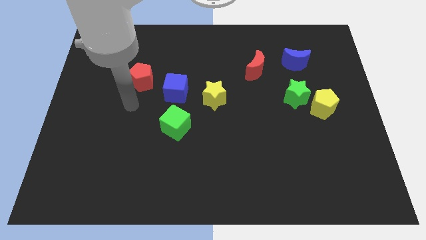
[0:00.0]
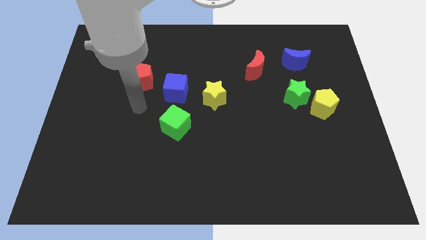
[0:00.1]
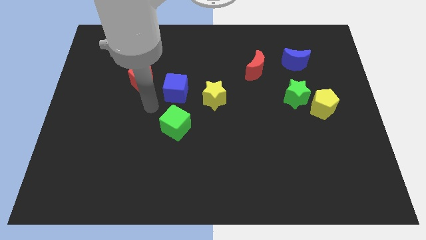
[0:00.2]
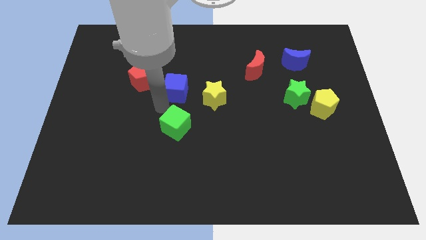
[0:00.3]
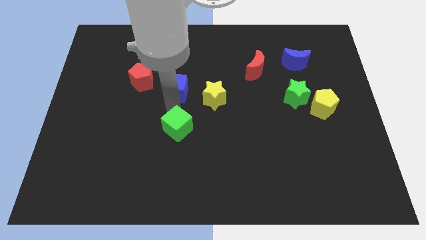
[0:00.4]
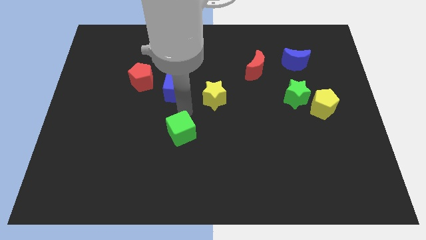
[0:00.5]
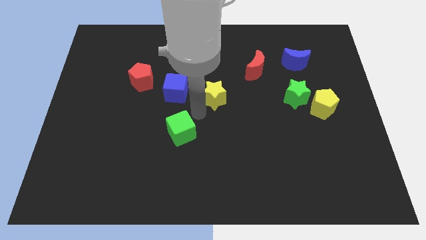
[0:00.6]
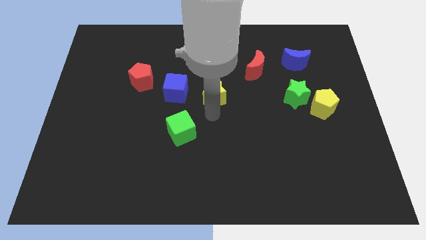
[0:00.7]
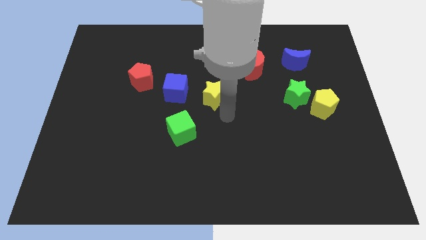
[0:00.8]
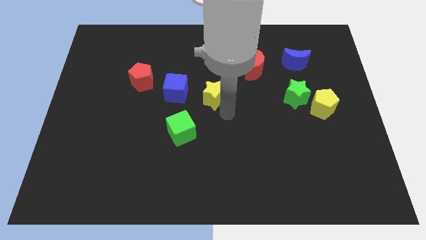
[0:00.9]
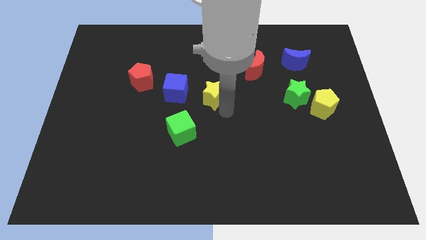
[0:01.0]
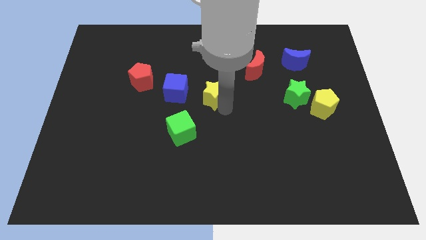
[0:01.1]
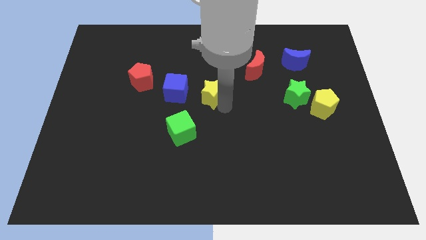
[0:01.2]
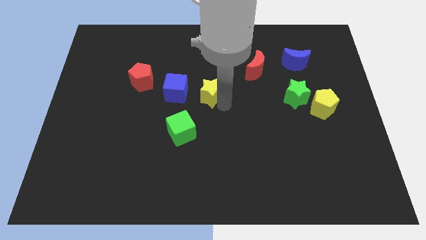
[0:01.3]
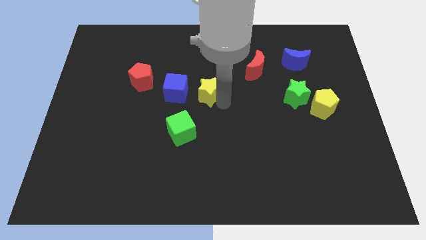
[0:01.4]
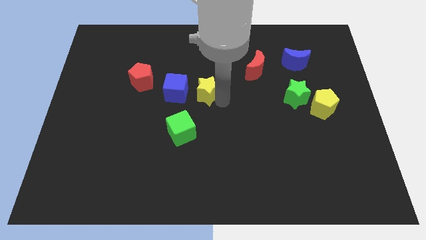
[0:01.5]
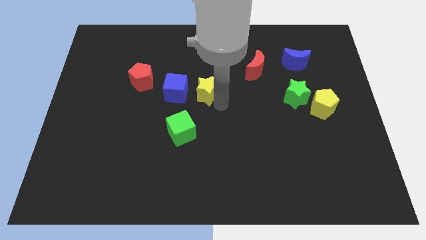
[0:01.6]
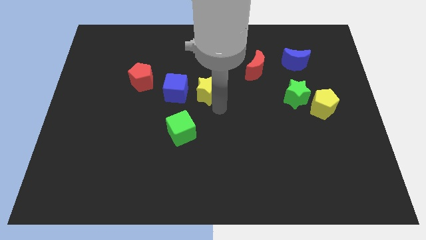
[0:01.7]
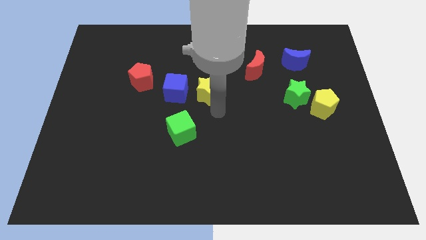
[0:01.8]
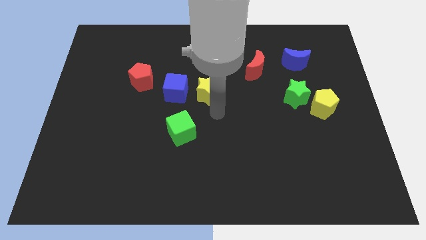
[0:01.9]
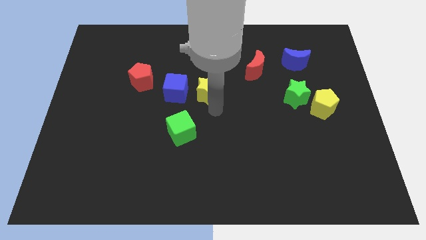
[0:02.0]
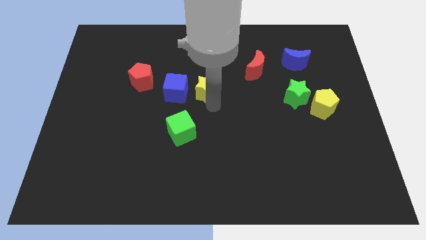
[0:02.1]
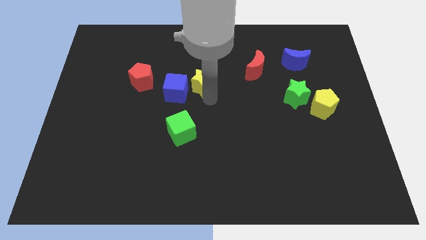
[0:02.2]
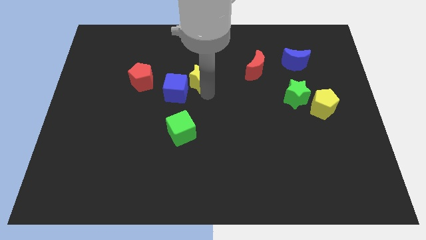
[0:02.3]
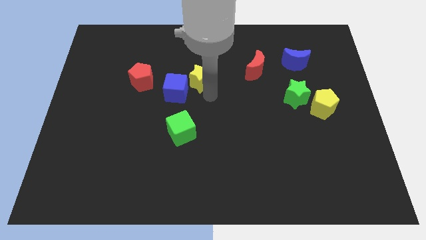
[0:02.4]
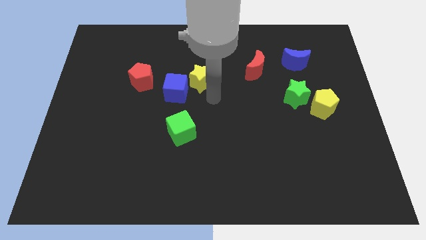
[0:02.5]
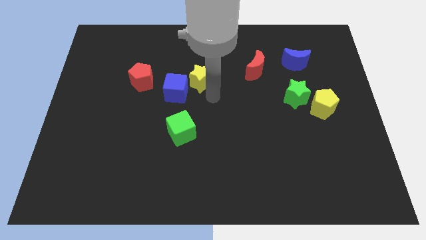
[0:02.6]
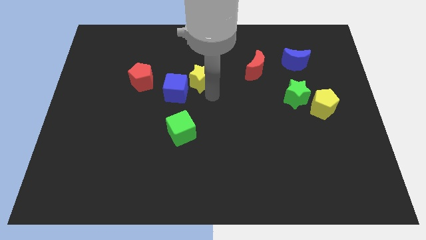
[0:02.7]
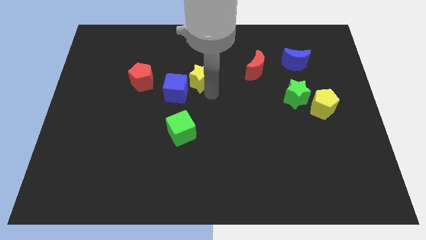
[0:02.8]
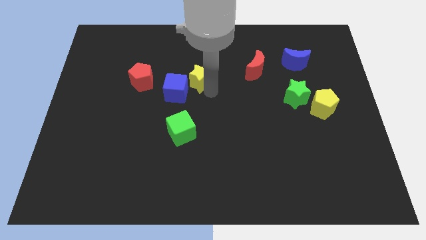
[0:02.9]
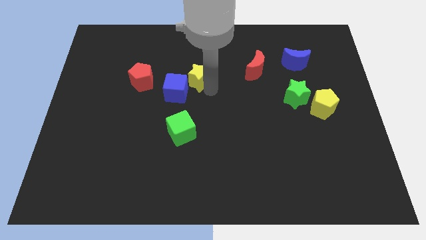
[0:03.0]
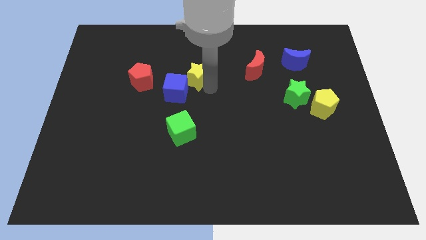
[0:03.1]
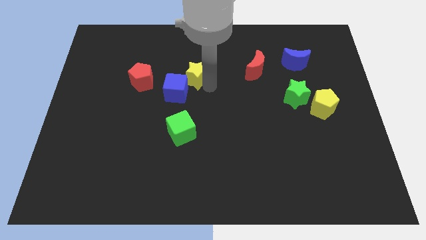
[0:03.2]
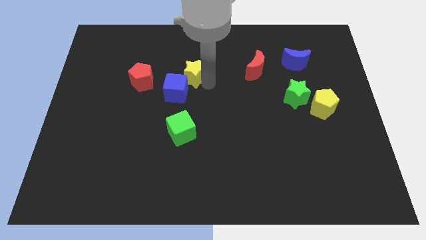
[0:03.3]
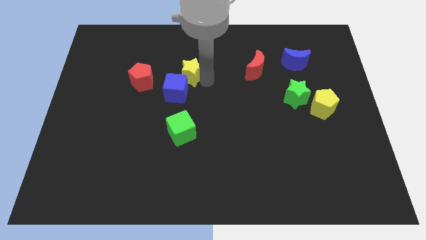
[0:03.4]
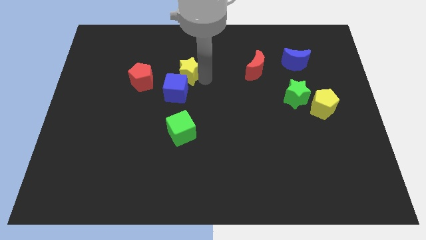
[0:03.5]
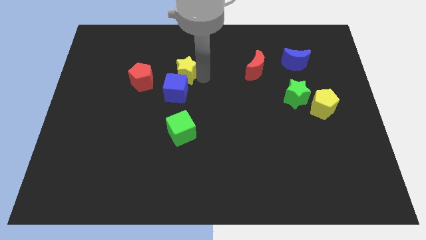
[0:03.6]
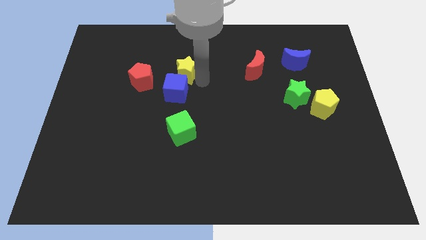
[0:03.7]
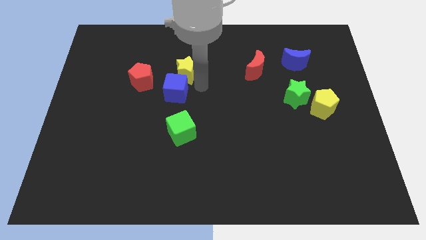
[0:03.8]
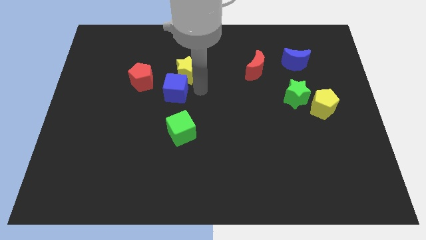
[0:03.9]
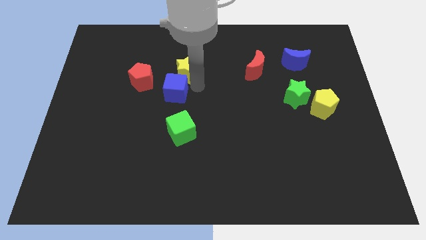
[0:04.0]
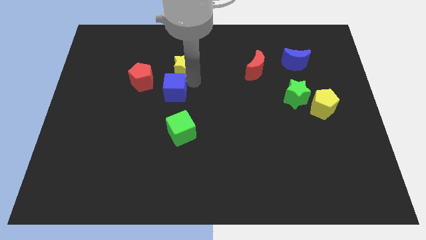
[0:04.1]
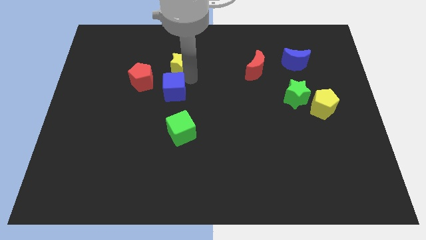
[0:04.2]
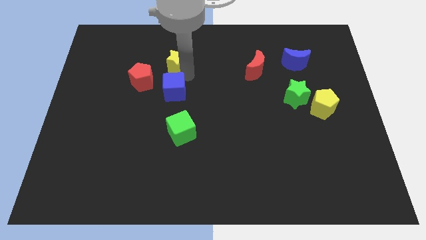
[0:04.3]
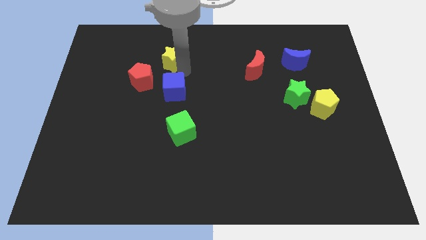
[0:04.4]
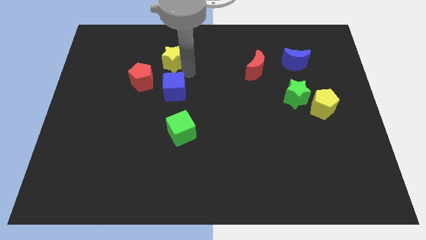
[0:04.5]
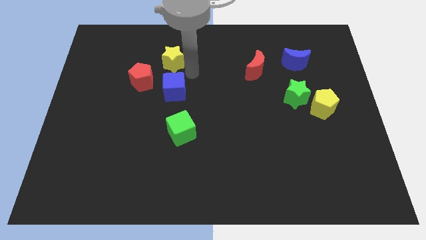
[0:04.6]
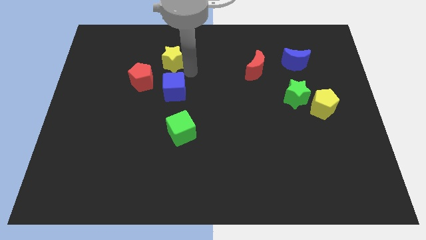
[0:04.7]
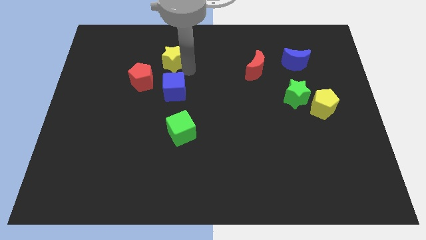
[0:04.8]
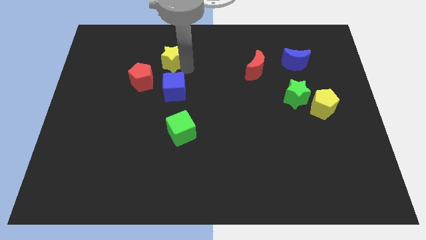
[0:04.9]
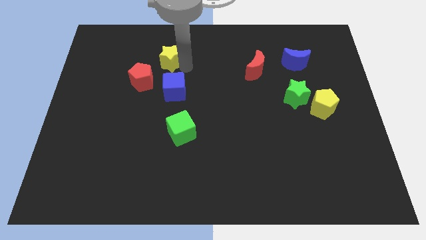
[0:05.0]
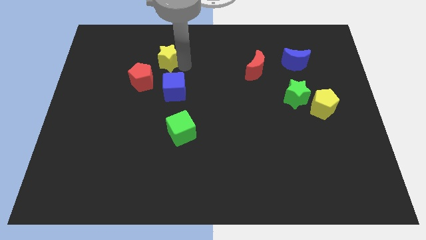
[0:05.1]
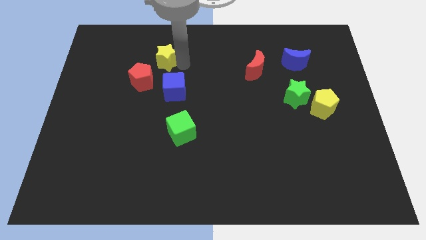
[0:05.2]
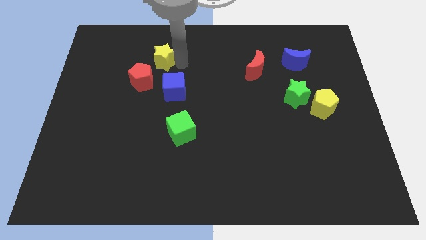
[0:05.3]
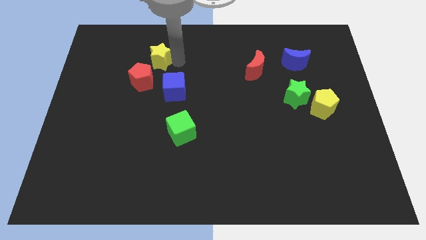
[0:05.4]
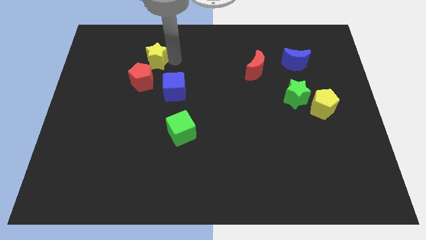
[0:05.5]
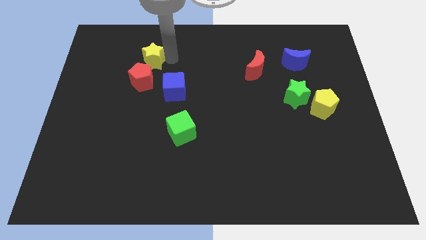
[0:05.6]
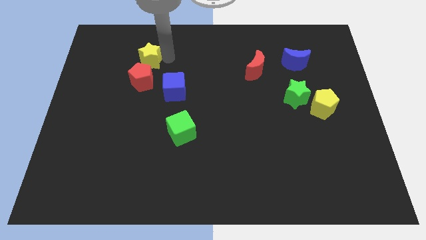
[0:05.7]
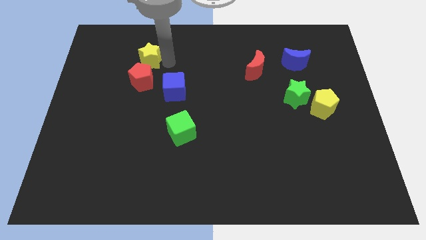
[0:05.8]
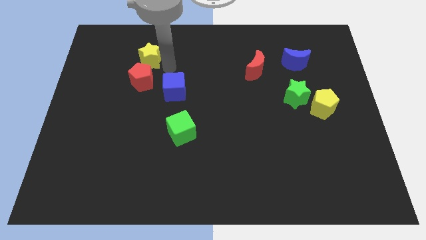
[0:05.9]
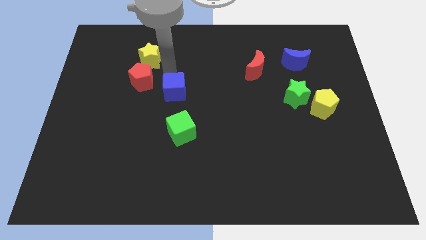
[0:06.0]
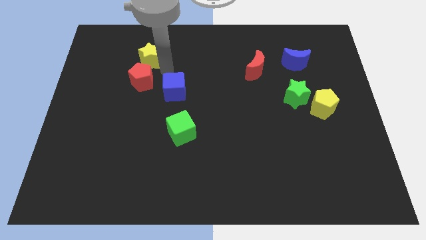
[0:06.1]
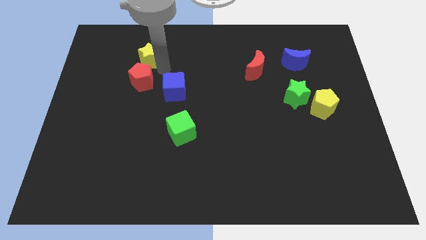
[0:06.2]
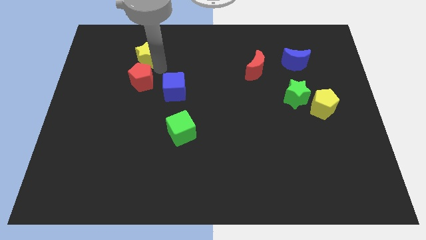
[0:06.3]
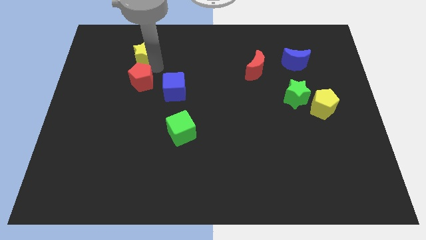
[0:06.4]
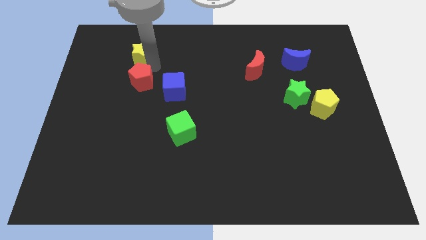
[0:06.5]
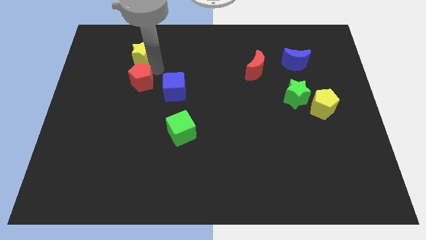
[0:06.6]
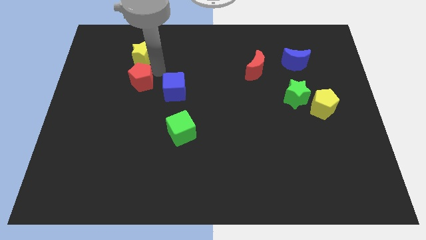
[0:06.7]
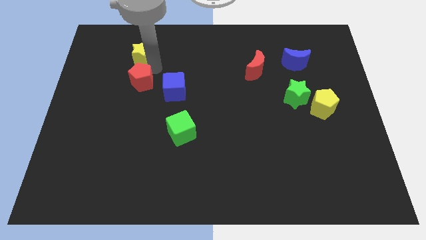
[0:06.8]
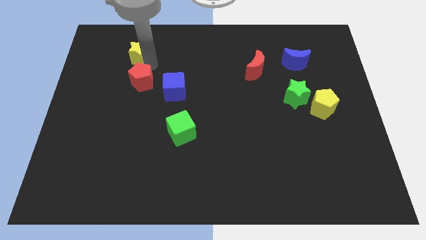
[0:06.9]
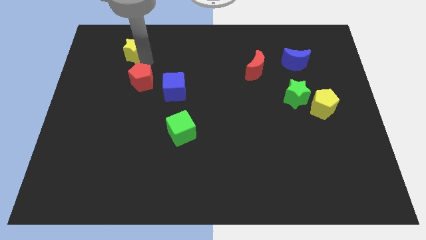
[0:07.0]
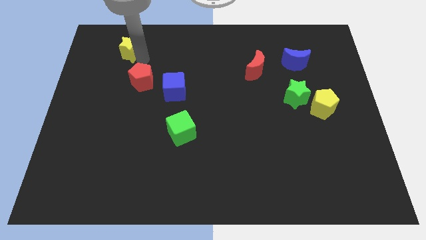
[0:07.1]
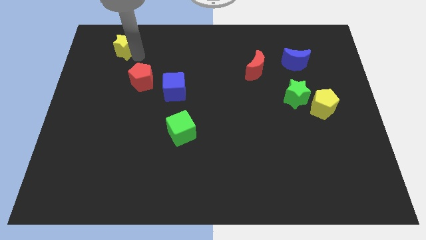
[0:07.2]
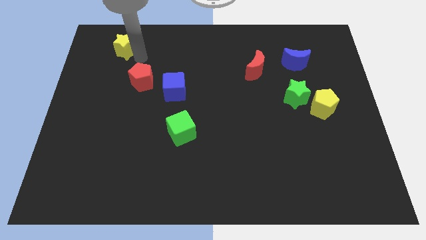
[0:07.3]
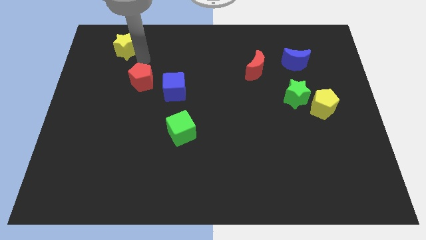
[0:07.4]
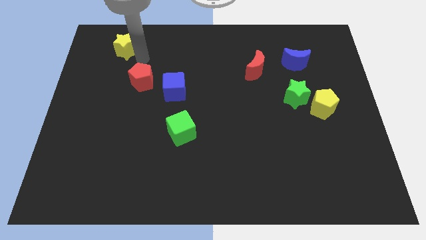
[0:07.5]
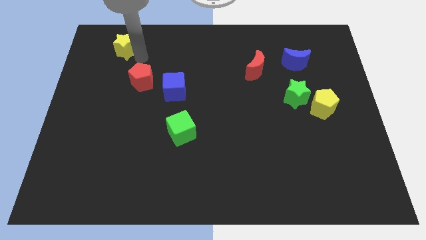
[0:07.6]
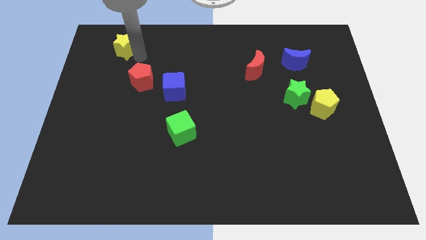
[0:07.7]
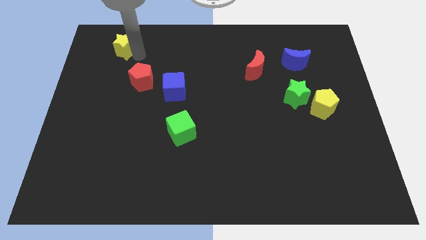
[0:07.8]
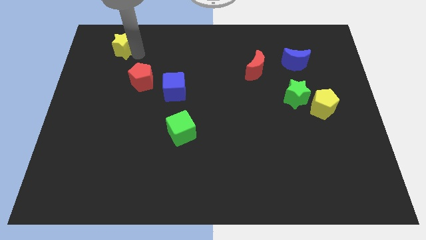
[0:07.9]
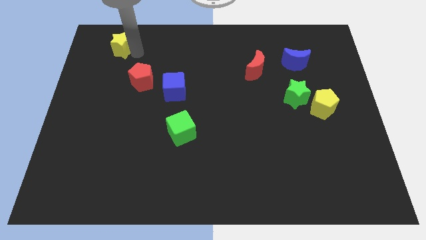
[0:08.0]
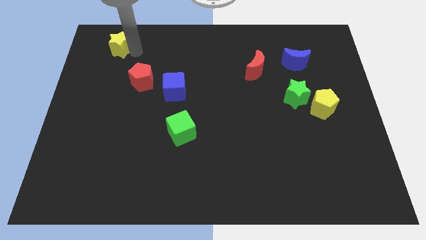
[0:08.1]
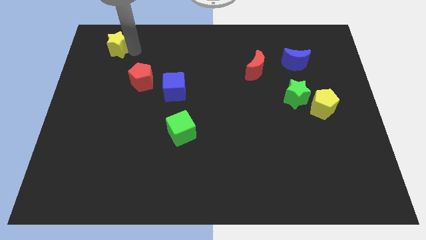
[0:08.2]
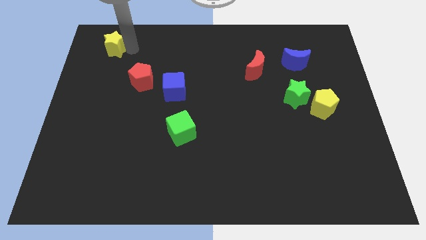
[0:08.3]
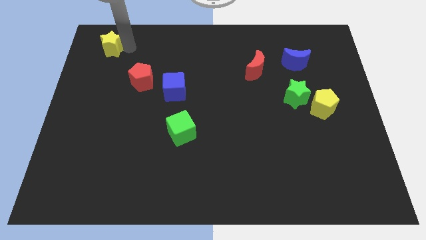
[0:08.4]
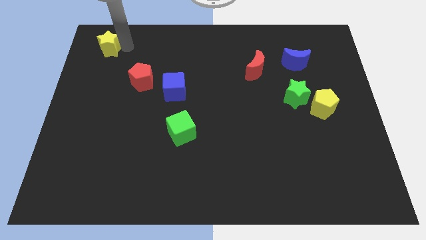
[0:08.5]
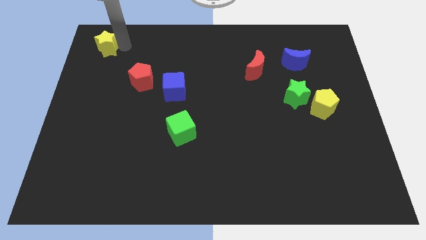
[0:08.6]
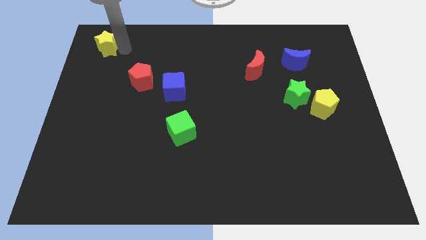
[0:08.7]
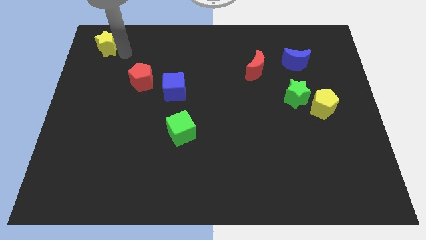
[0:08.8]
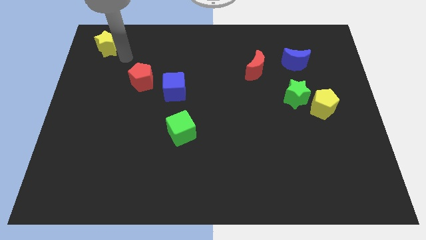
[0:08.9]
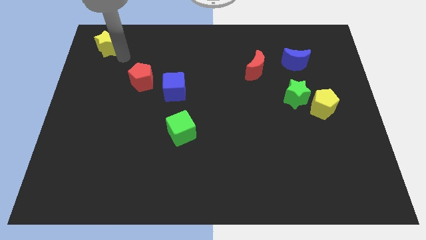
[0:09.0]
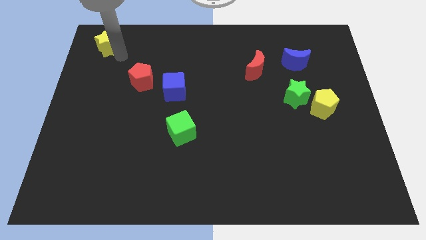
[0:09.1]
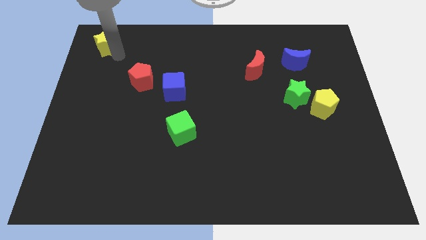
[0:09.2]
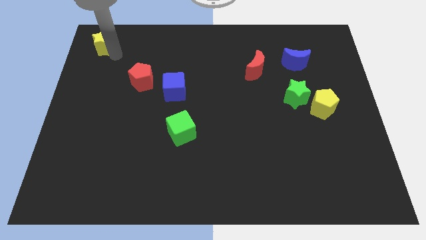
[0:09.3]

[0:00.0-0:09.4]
move the yellow star to the top left of the board
